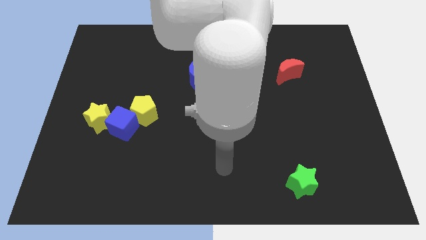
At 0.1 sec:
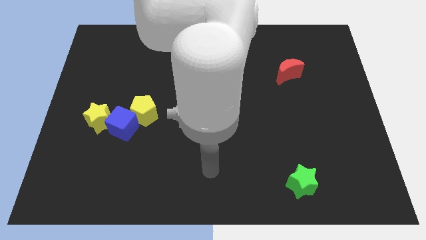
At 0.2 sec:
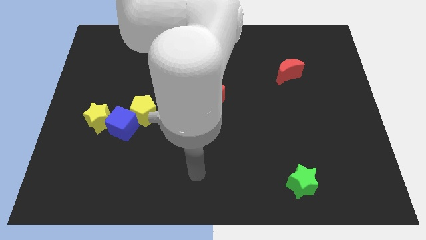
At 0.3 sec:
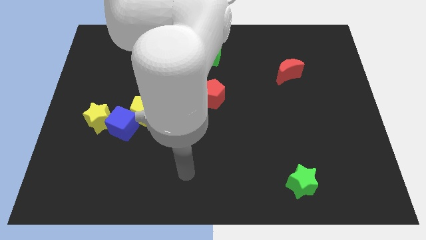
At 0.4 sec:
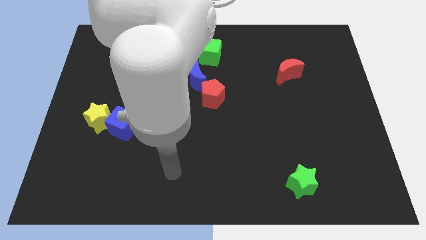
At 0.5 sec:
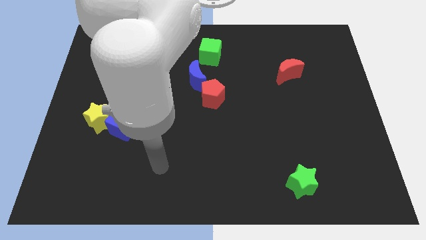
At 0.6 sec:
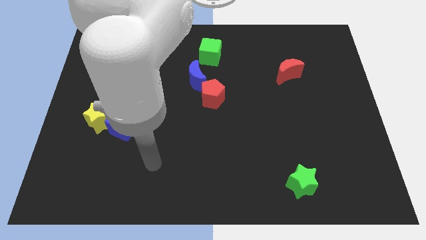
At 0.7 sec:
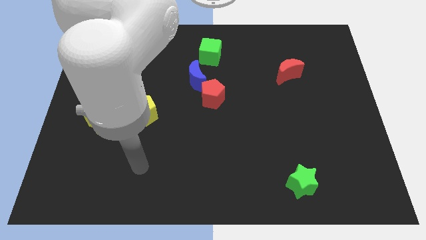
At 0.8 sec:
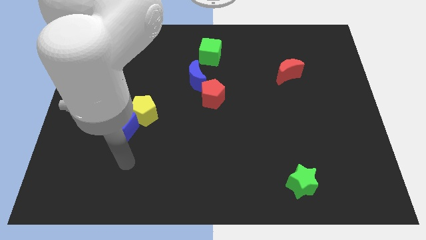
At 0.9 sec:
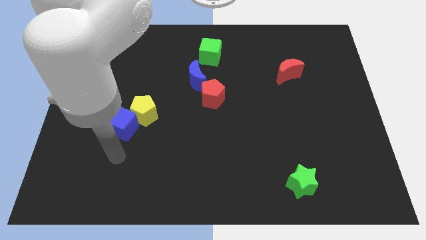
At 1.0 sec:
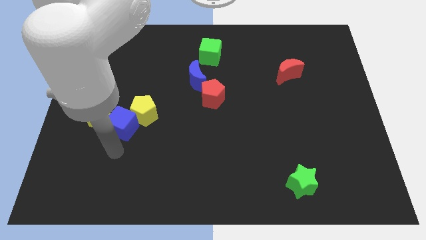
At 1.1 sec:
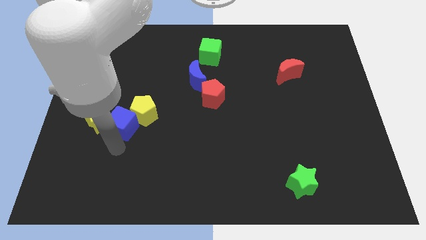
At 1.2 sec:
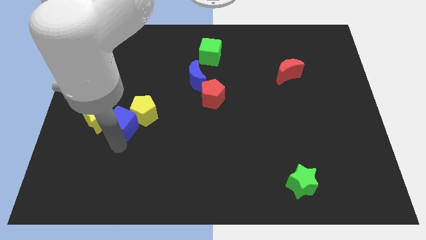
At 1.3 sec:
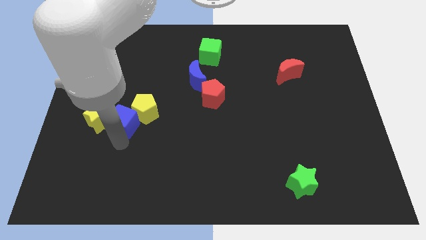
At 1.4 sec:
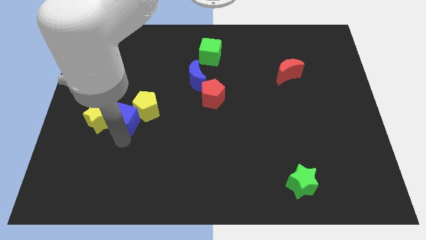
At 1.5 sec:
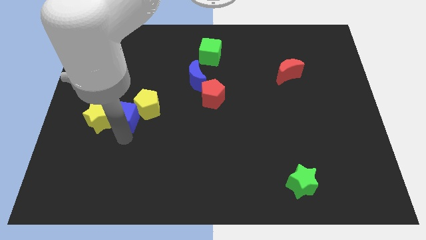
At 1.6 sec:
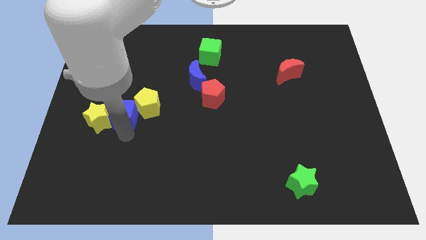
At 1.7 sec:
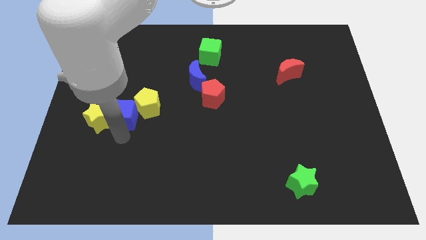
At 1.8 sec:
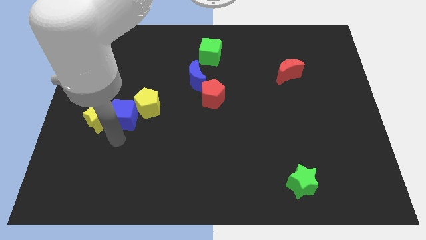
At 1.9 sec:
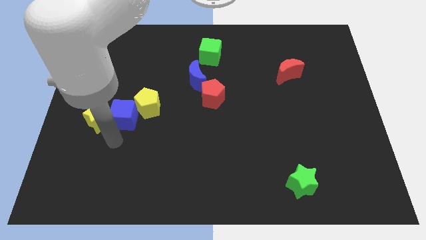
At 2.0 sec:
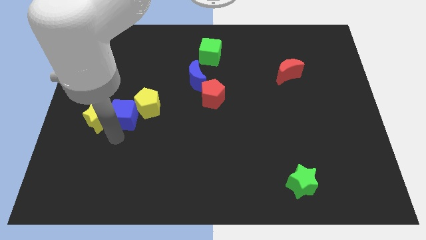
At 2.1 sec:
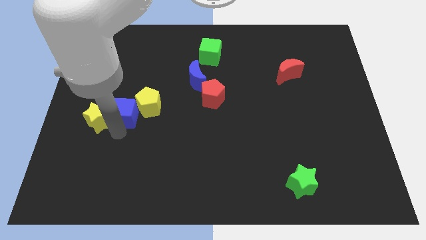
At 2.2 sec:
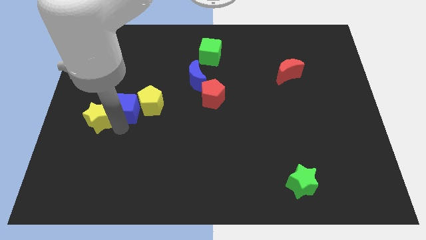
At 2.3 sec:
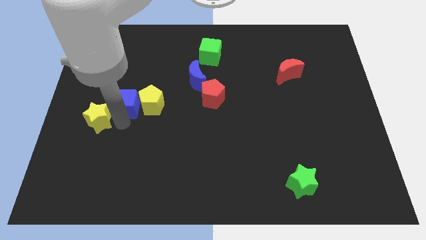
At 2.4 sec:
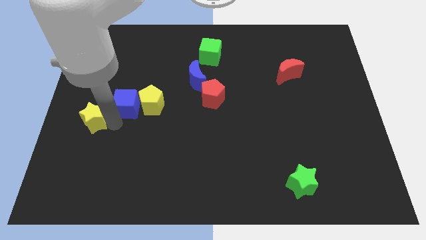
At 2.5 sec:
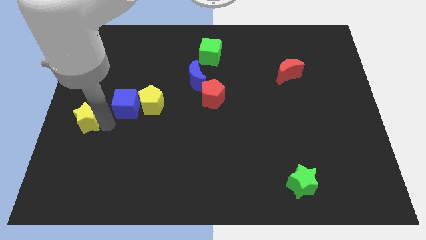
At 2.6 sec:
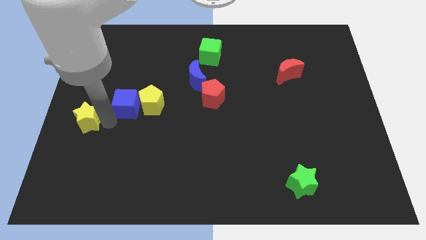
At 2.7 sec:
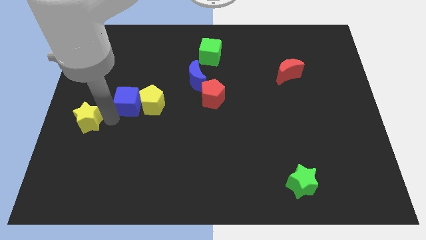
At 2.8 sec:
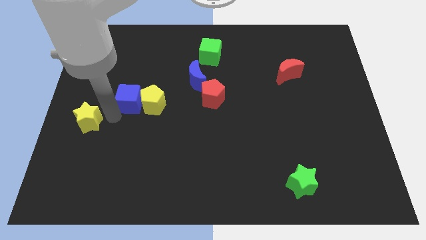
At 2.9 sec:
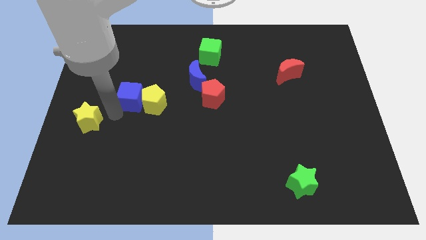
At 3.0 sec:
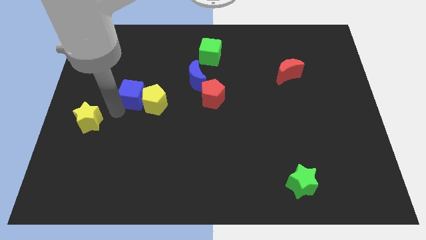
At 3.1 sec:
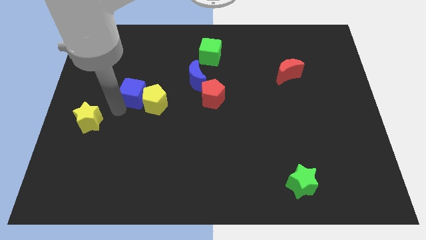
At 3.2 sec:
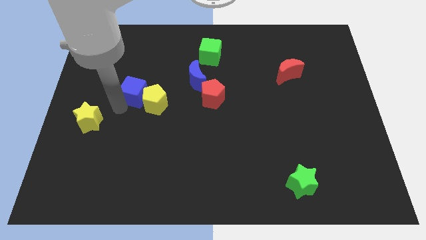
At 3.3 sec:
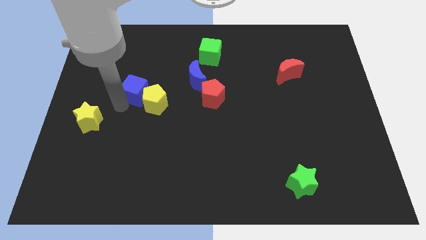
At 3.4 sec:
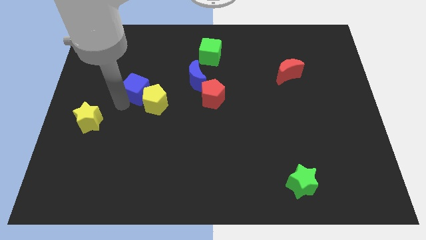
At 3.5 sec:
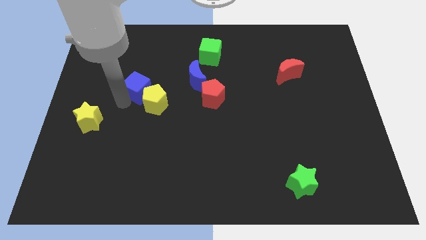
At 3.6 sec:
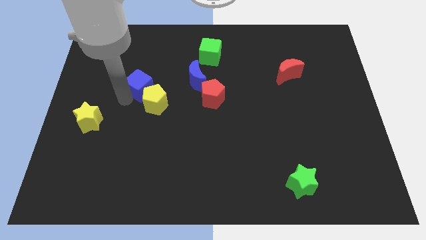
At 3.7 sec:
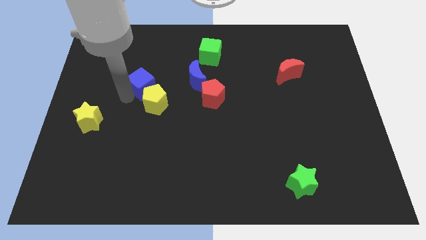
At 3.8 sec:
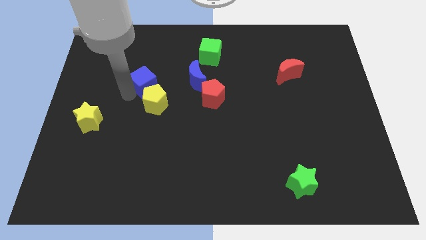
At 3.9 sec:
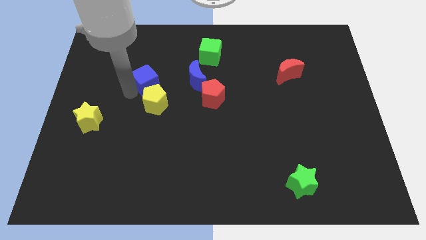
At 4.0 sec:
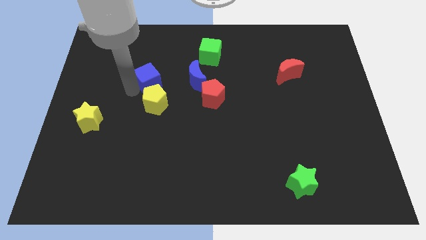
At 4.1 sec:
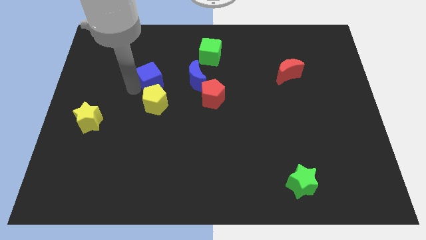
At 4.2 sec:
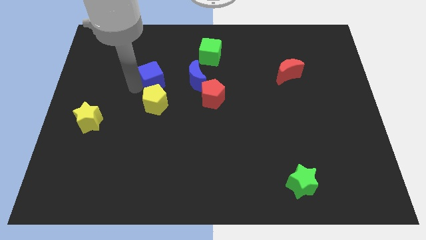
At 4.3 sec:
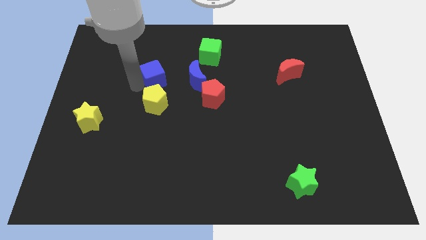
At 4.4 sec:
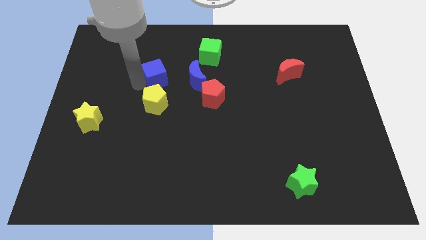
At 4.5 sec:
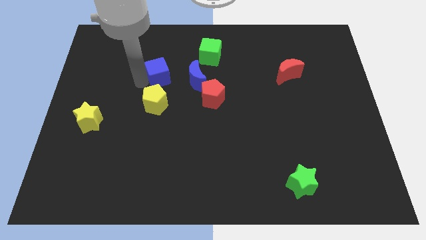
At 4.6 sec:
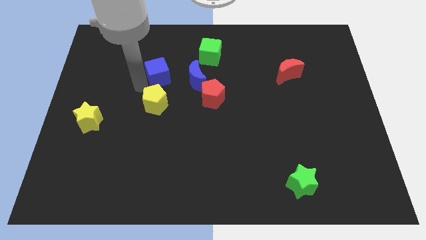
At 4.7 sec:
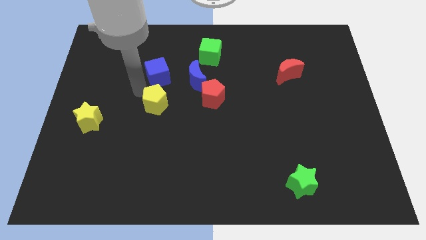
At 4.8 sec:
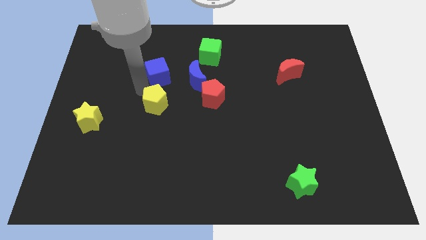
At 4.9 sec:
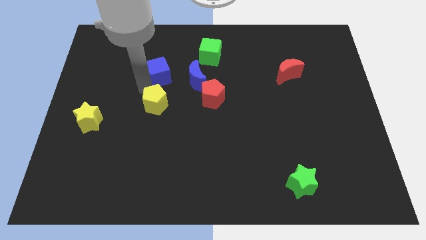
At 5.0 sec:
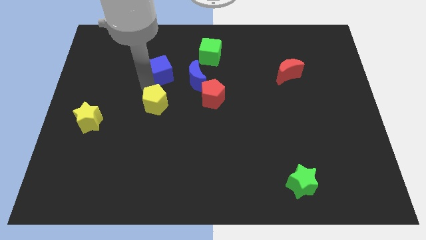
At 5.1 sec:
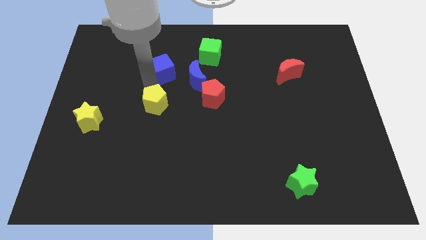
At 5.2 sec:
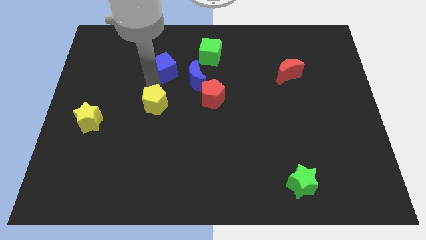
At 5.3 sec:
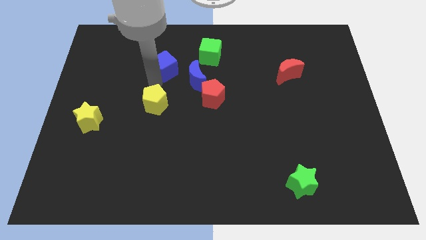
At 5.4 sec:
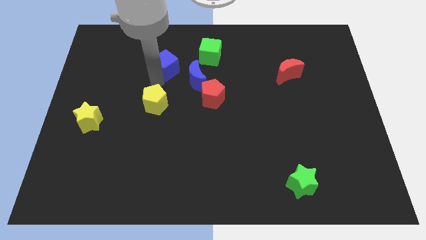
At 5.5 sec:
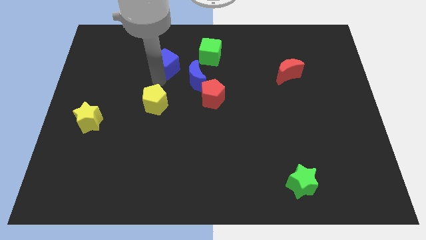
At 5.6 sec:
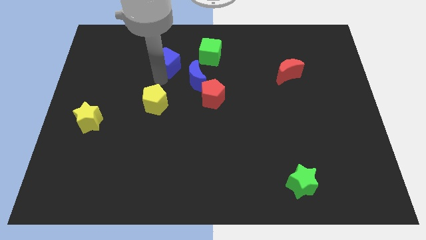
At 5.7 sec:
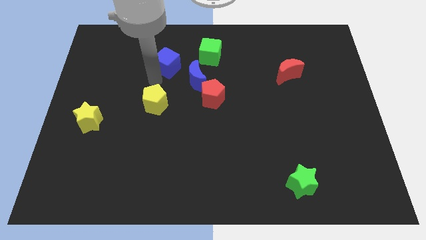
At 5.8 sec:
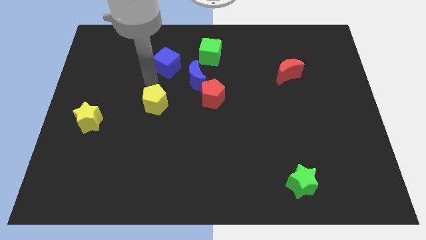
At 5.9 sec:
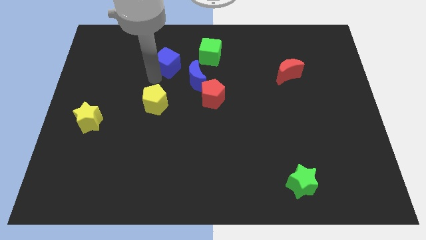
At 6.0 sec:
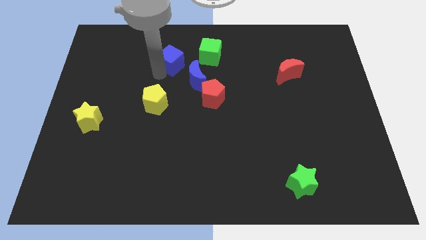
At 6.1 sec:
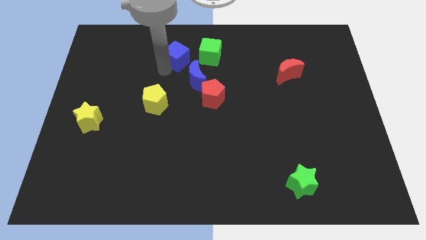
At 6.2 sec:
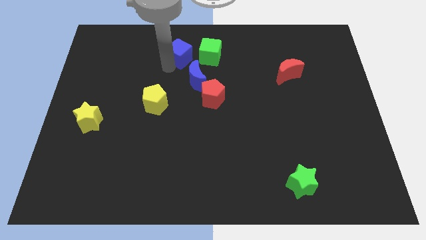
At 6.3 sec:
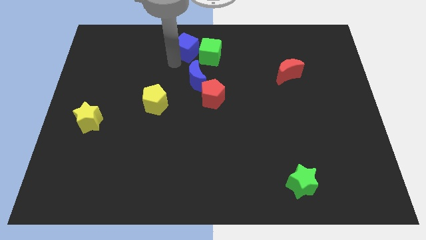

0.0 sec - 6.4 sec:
move the blue cube to the top side
